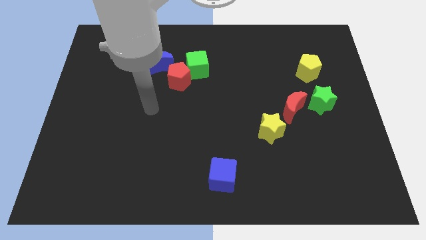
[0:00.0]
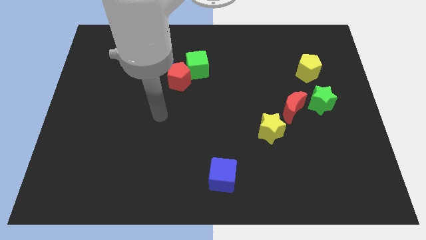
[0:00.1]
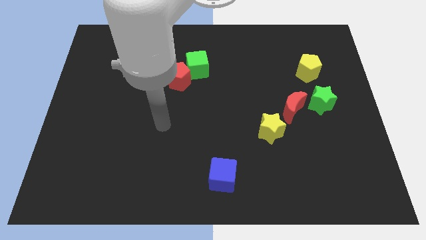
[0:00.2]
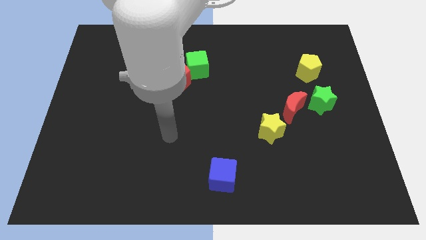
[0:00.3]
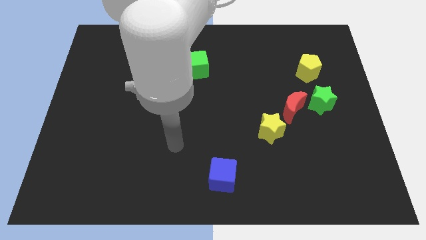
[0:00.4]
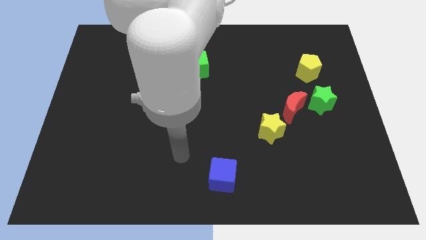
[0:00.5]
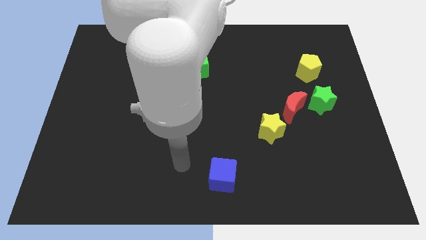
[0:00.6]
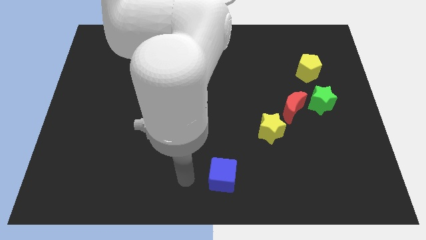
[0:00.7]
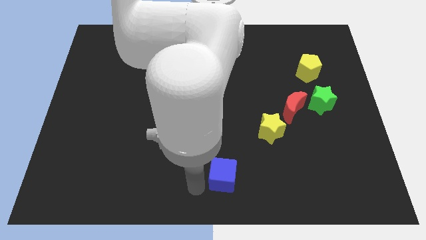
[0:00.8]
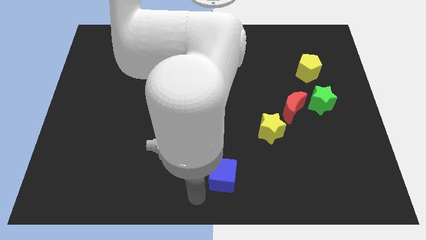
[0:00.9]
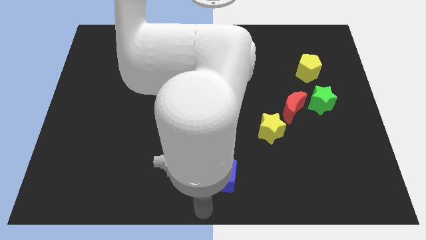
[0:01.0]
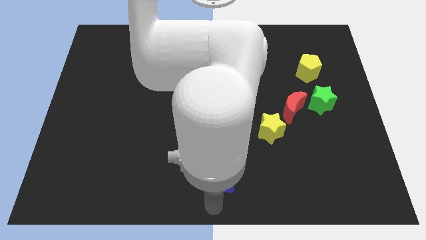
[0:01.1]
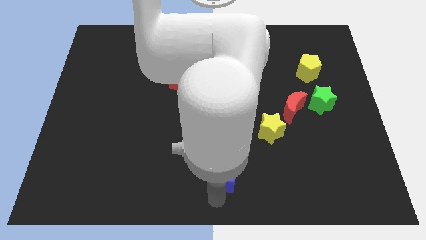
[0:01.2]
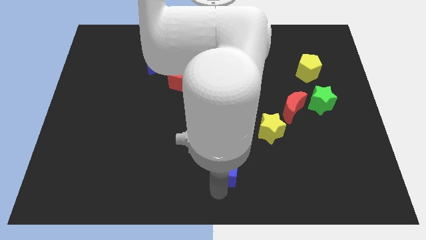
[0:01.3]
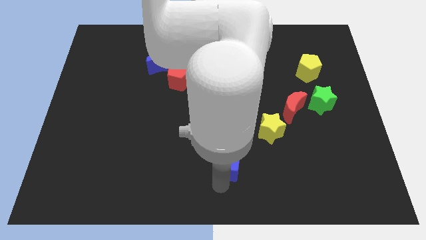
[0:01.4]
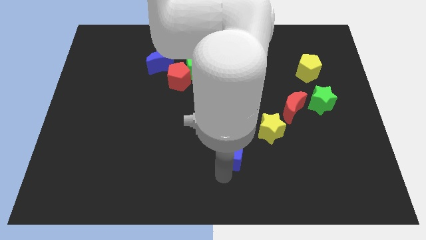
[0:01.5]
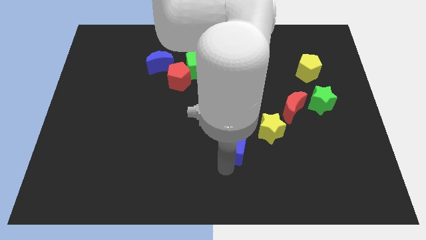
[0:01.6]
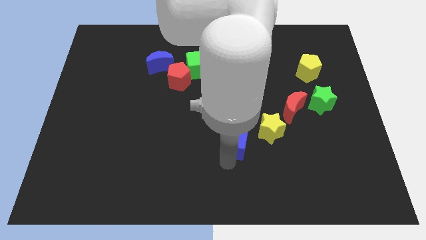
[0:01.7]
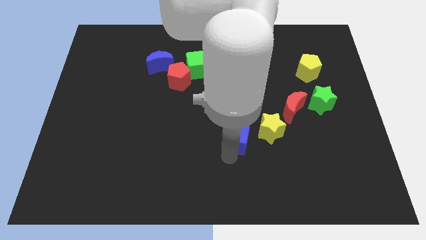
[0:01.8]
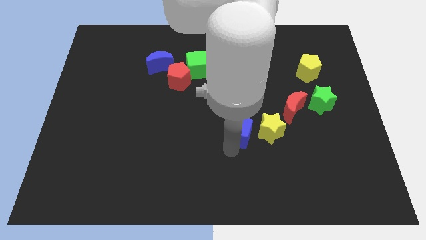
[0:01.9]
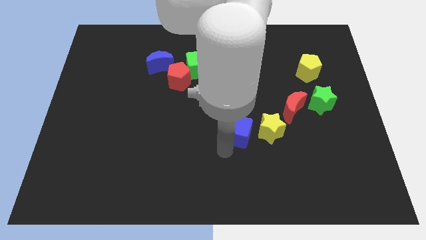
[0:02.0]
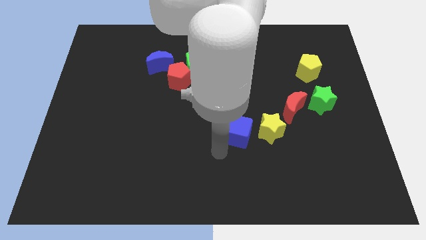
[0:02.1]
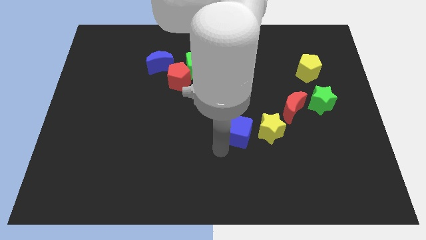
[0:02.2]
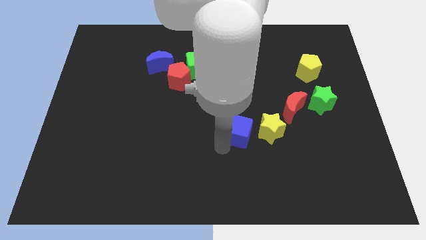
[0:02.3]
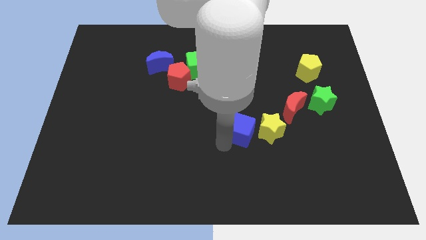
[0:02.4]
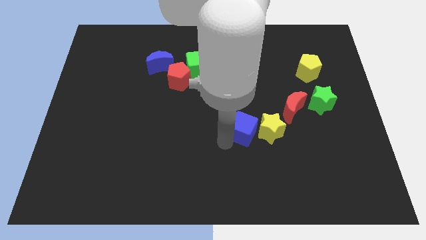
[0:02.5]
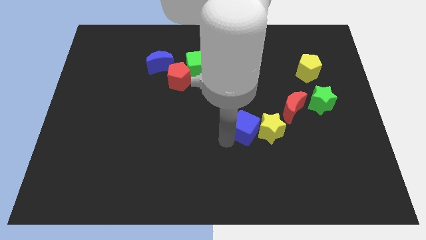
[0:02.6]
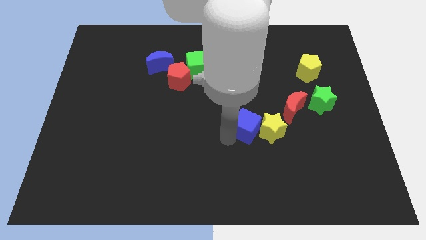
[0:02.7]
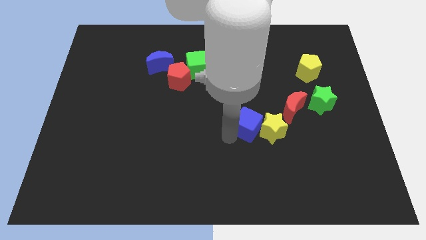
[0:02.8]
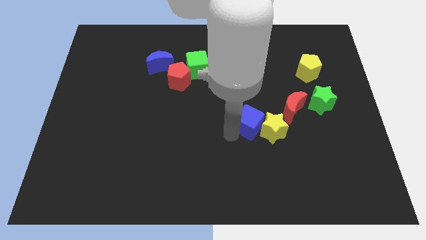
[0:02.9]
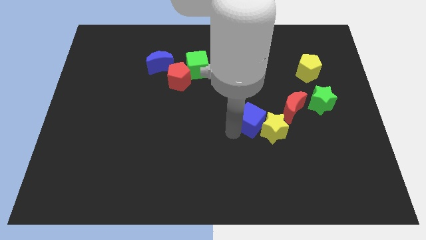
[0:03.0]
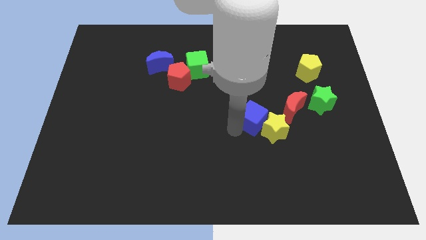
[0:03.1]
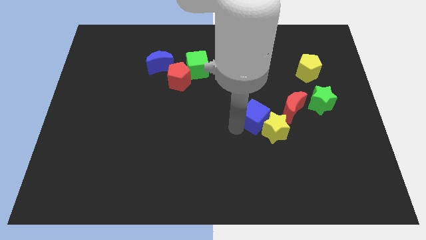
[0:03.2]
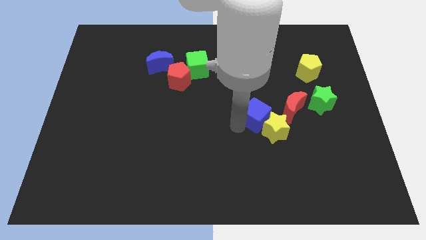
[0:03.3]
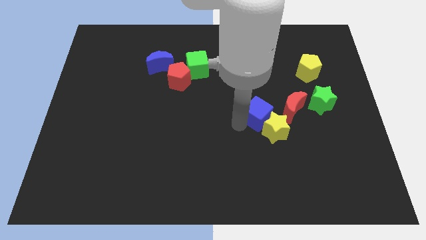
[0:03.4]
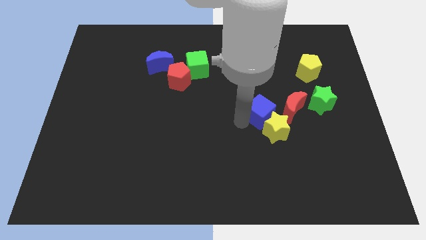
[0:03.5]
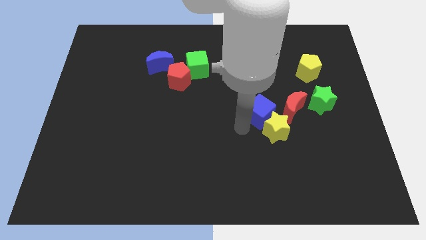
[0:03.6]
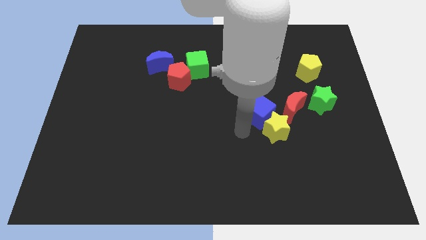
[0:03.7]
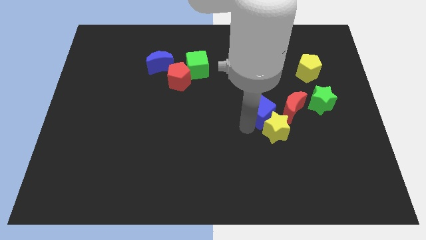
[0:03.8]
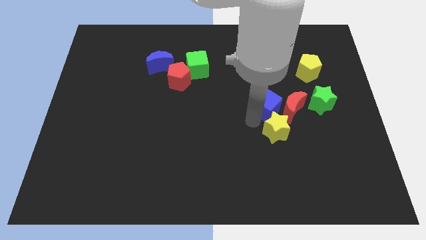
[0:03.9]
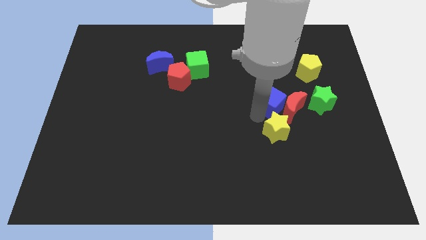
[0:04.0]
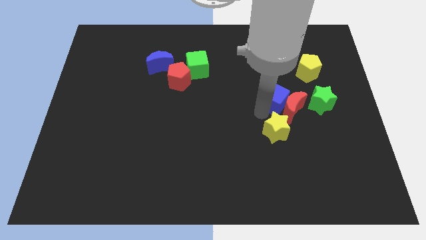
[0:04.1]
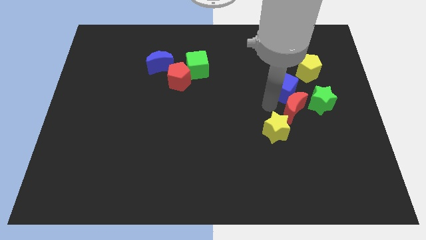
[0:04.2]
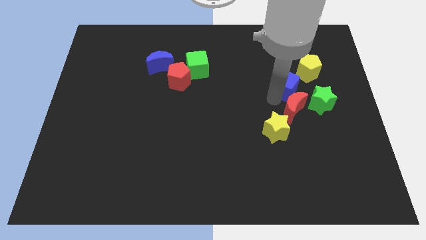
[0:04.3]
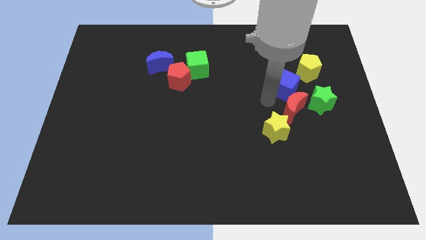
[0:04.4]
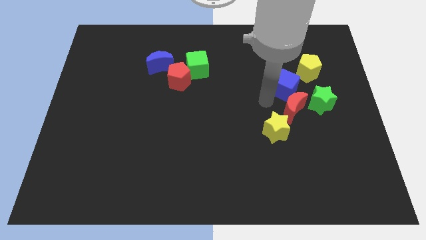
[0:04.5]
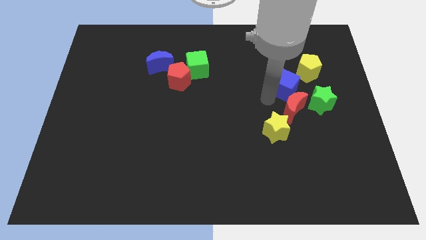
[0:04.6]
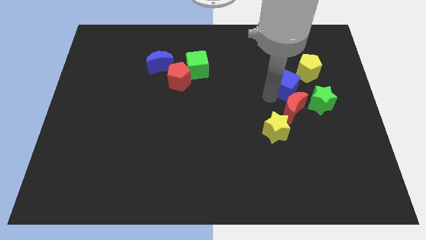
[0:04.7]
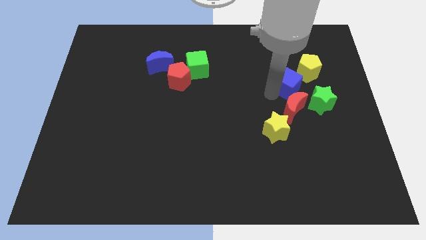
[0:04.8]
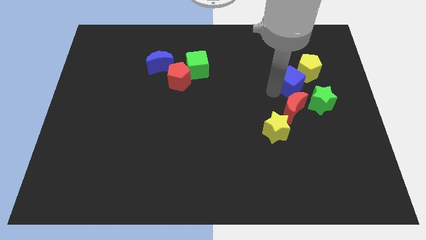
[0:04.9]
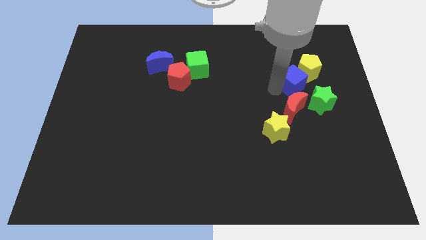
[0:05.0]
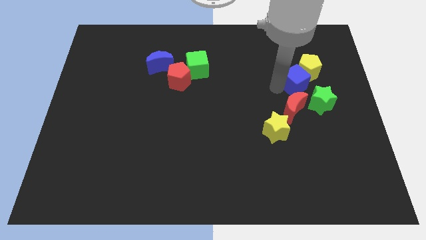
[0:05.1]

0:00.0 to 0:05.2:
move the blue cube to the yellow pentagon

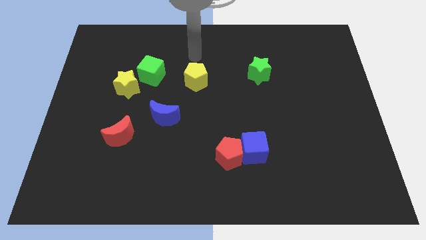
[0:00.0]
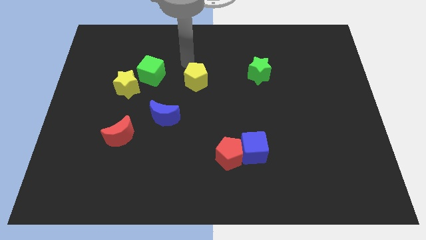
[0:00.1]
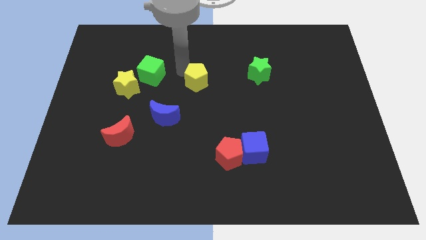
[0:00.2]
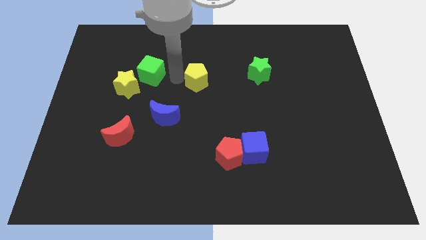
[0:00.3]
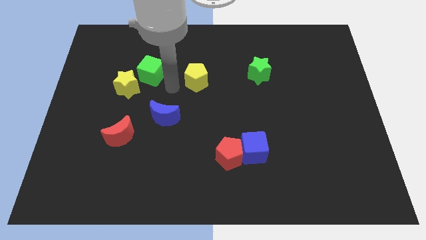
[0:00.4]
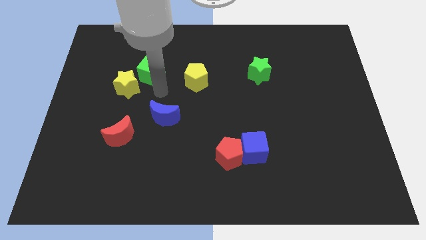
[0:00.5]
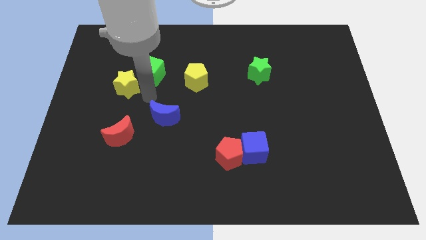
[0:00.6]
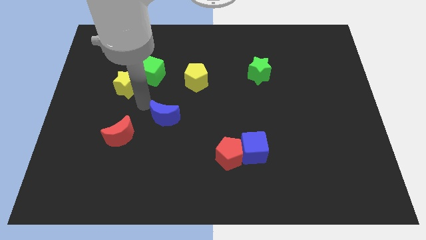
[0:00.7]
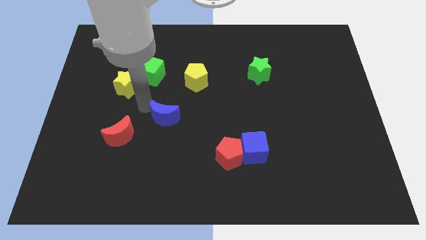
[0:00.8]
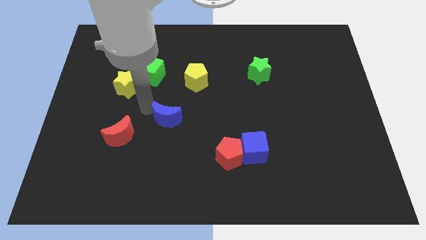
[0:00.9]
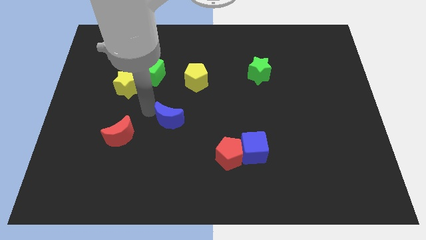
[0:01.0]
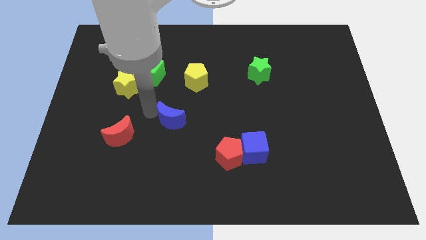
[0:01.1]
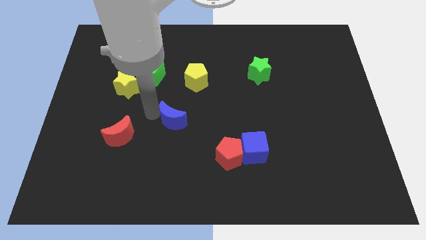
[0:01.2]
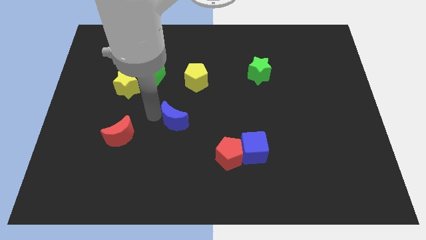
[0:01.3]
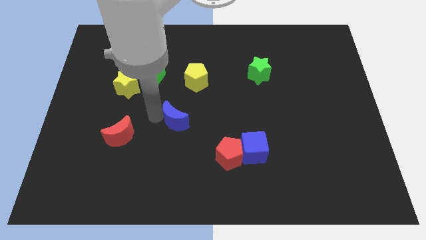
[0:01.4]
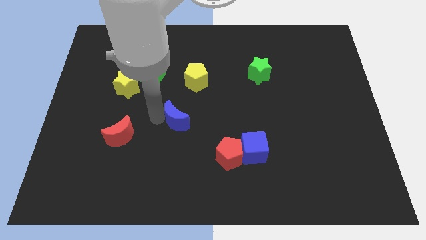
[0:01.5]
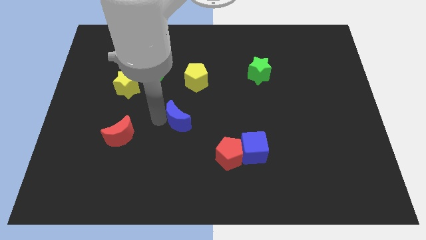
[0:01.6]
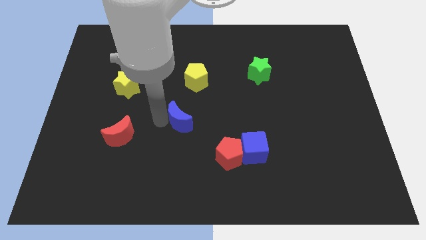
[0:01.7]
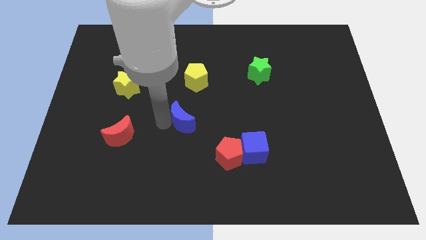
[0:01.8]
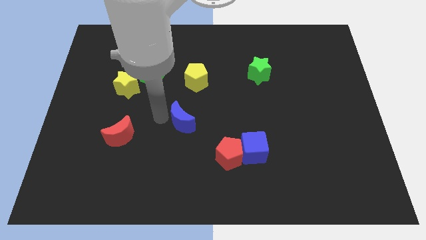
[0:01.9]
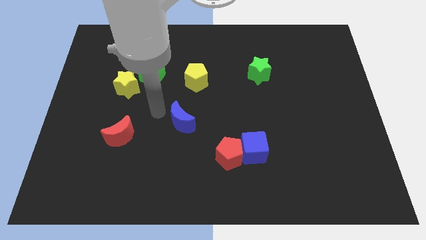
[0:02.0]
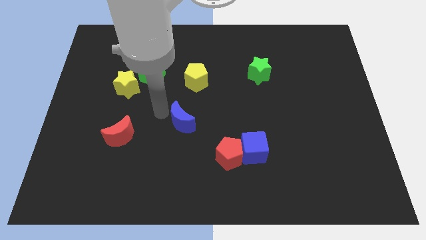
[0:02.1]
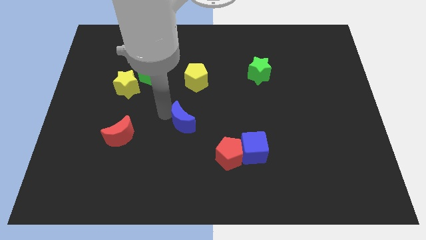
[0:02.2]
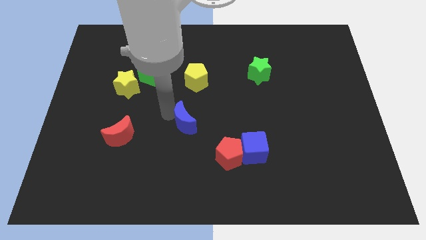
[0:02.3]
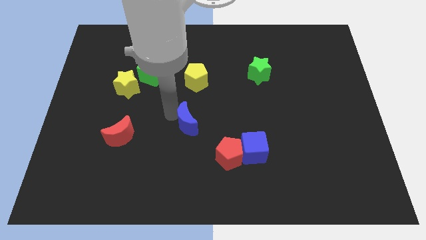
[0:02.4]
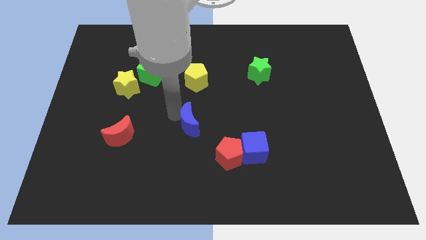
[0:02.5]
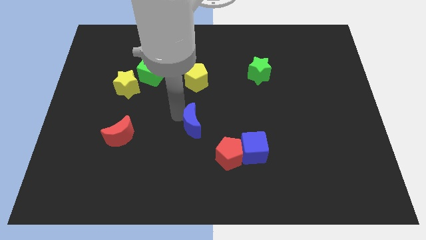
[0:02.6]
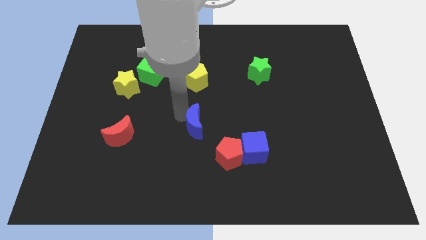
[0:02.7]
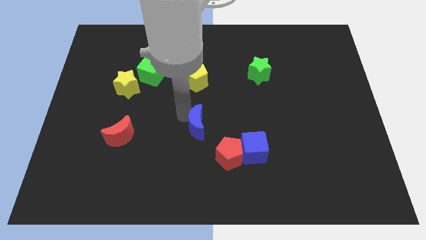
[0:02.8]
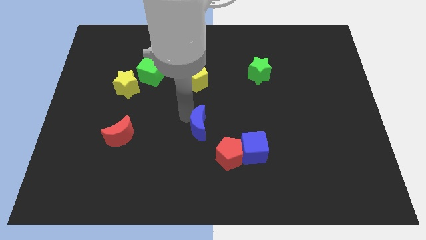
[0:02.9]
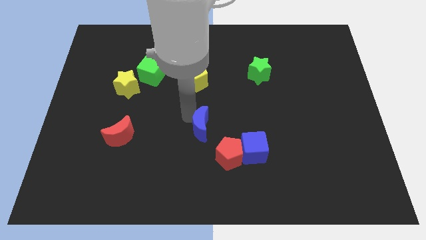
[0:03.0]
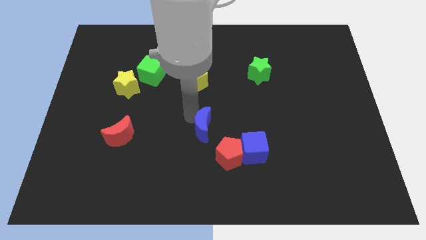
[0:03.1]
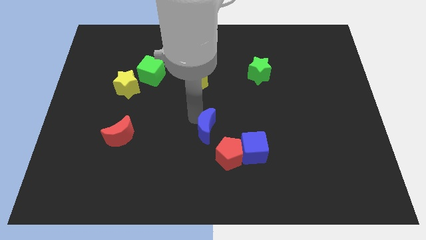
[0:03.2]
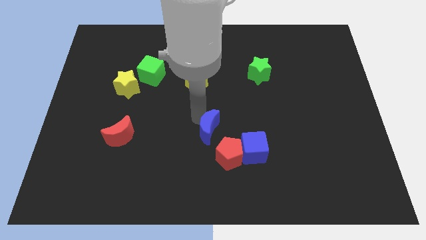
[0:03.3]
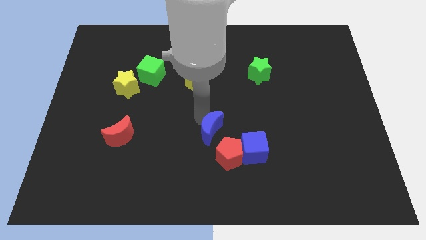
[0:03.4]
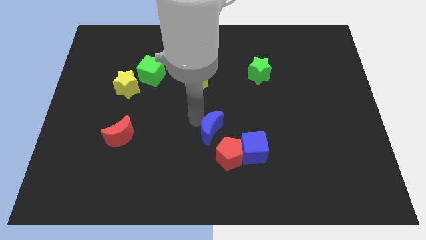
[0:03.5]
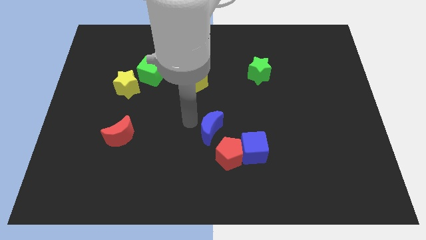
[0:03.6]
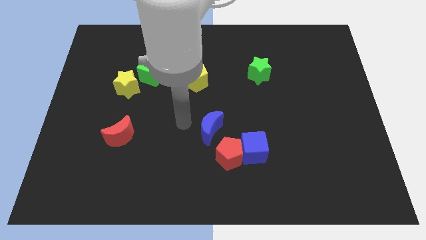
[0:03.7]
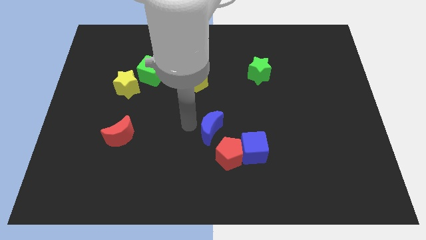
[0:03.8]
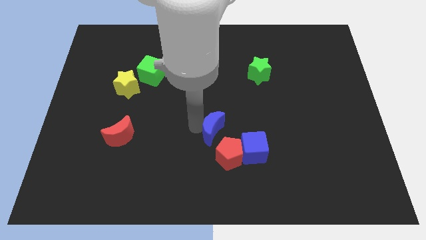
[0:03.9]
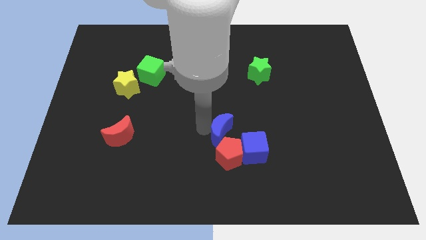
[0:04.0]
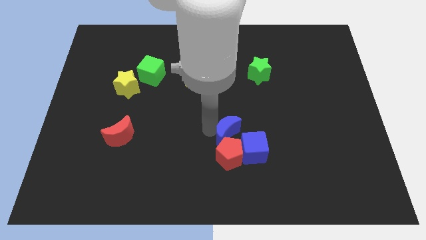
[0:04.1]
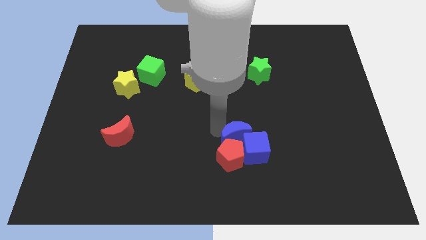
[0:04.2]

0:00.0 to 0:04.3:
move the blue moon to the blue cube
